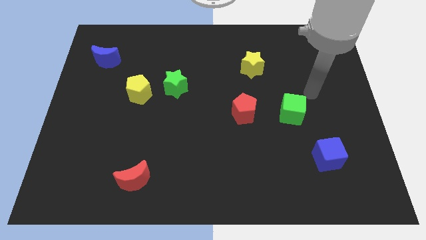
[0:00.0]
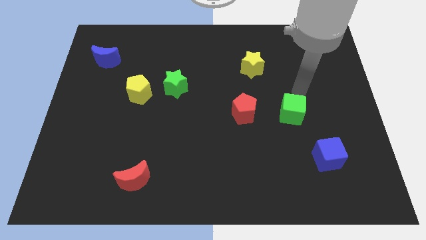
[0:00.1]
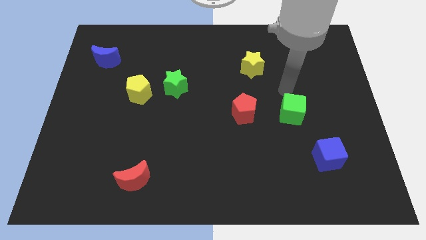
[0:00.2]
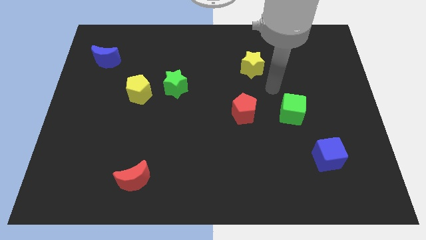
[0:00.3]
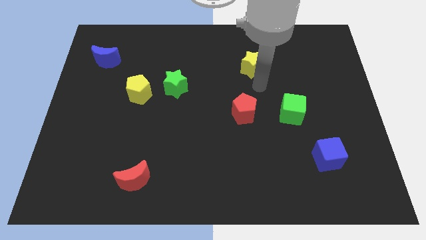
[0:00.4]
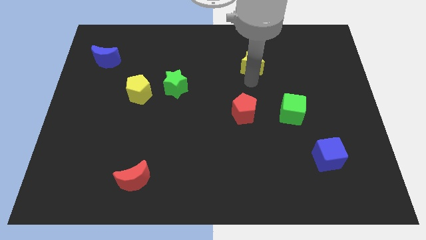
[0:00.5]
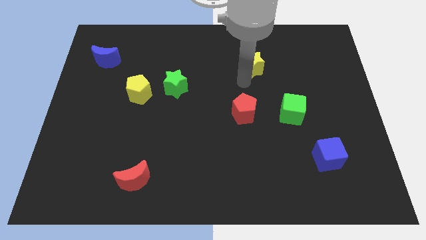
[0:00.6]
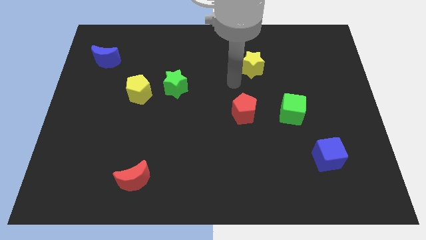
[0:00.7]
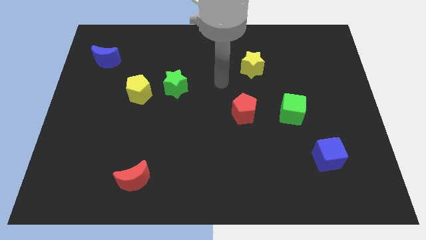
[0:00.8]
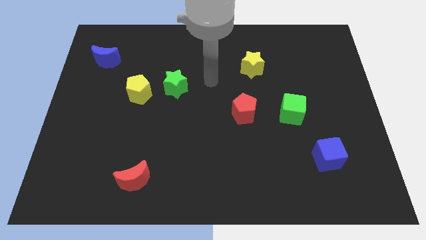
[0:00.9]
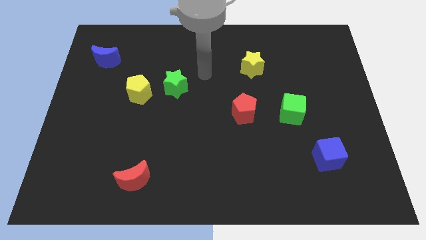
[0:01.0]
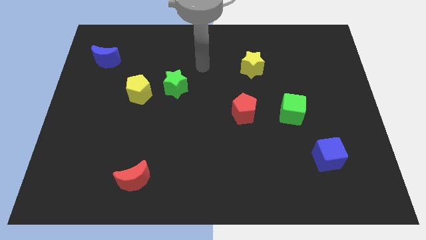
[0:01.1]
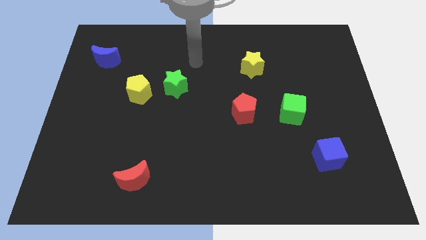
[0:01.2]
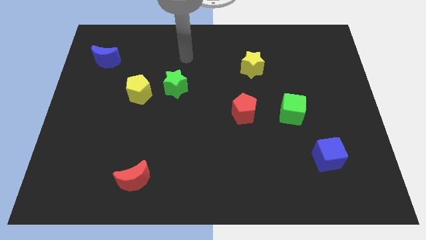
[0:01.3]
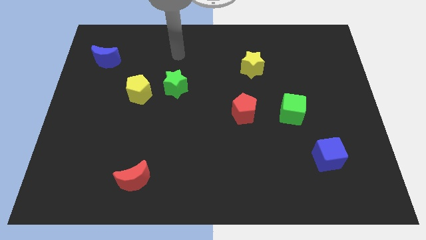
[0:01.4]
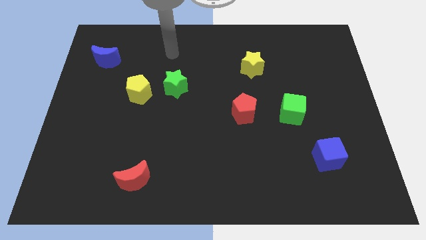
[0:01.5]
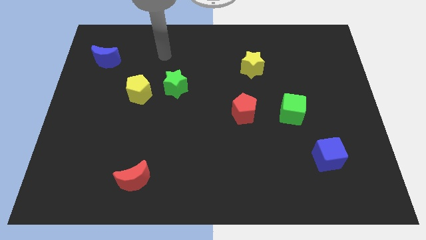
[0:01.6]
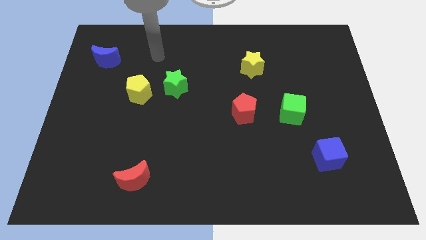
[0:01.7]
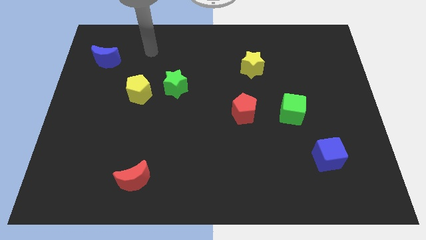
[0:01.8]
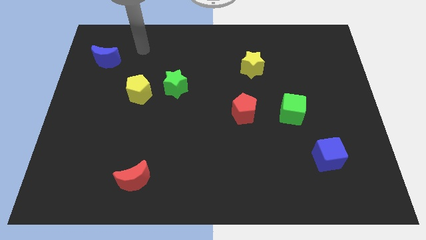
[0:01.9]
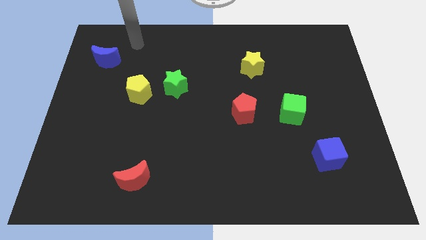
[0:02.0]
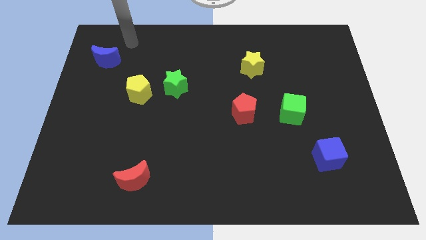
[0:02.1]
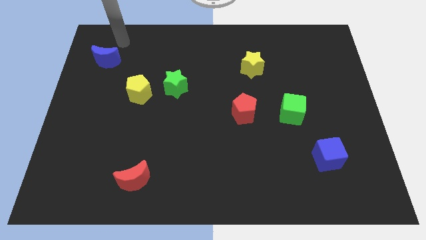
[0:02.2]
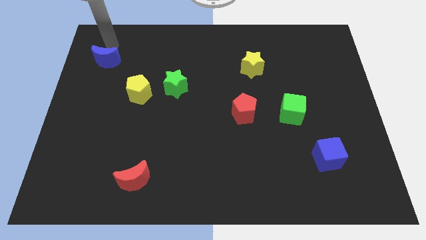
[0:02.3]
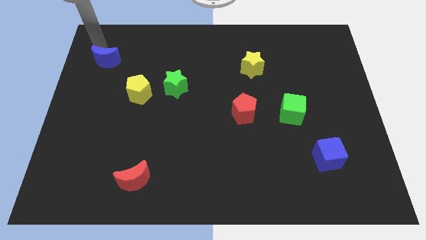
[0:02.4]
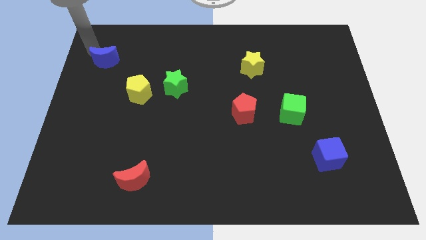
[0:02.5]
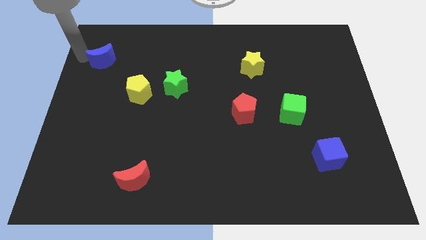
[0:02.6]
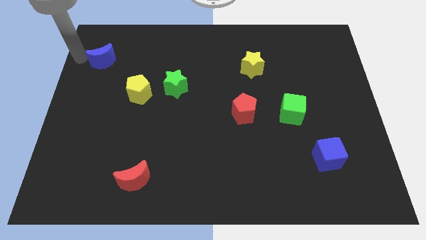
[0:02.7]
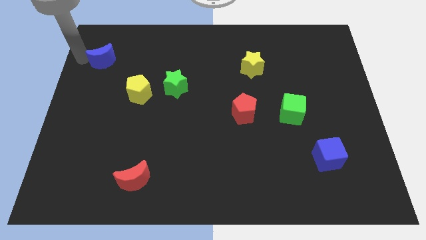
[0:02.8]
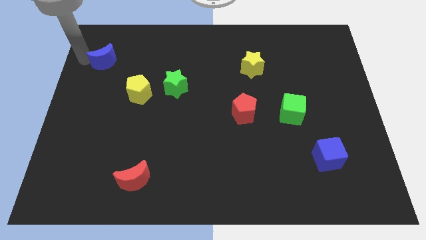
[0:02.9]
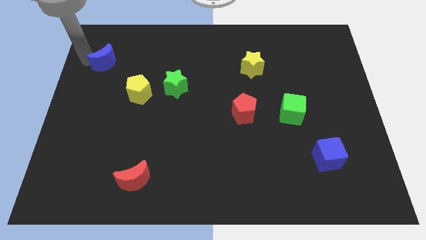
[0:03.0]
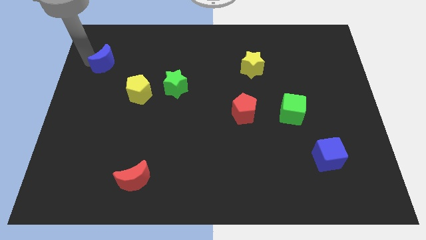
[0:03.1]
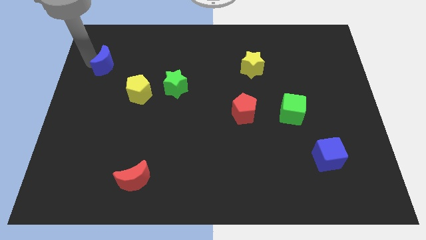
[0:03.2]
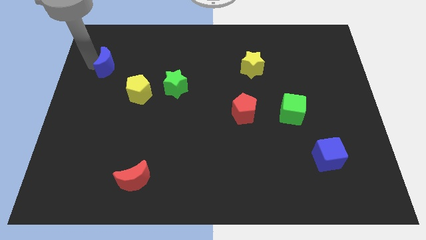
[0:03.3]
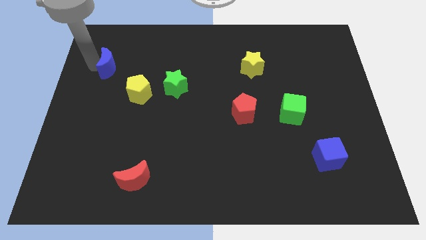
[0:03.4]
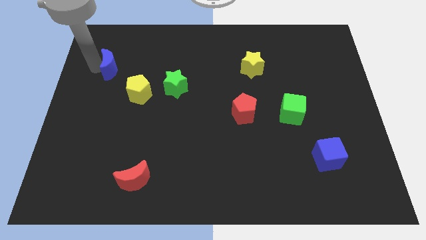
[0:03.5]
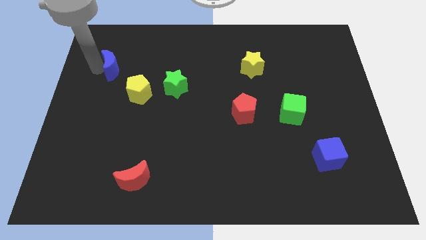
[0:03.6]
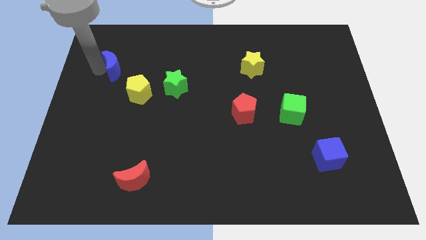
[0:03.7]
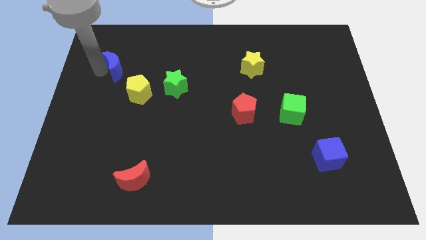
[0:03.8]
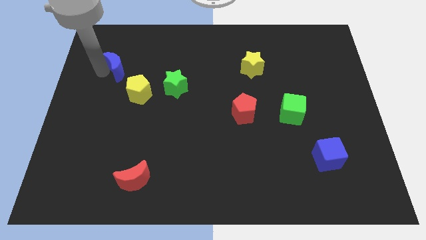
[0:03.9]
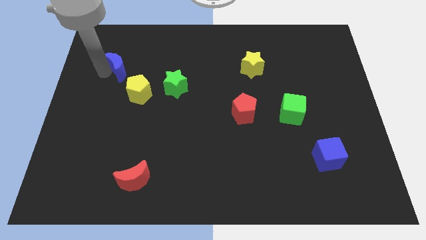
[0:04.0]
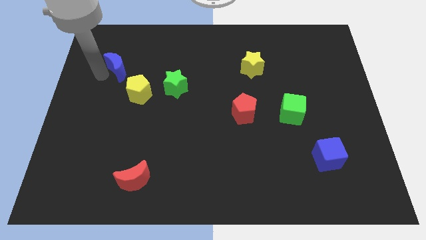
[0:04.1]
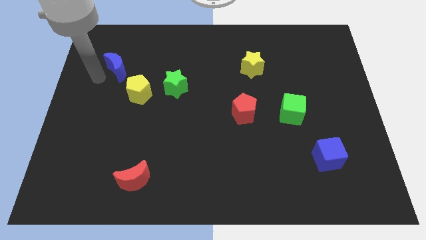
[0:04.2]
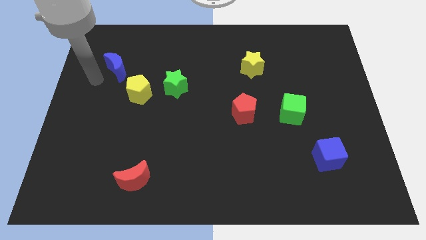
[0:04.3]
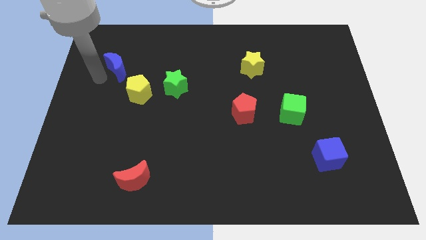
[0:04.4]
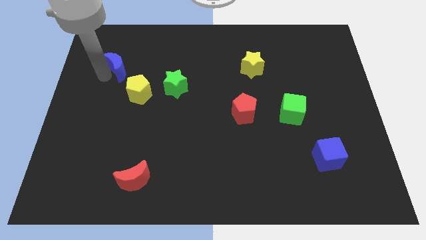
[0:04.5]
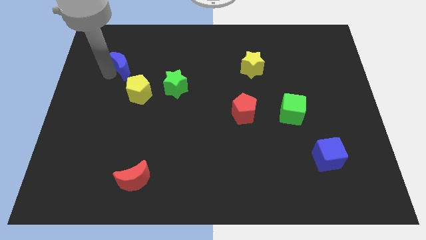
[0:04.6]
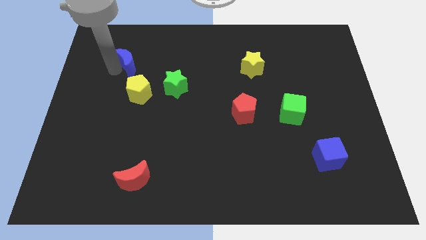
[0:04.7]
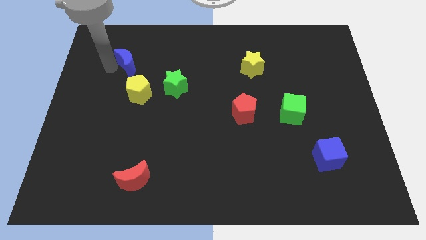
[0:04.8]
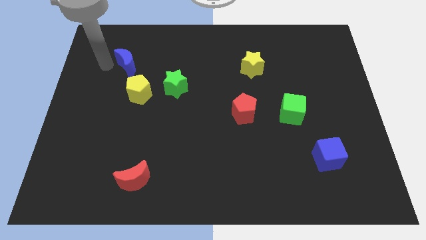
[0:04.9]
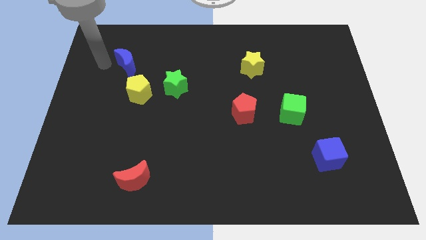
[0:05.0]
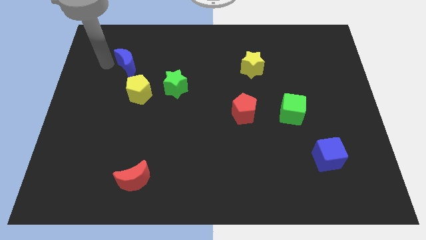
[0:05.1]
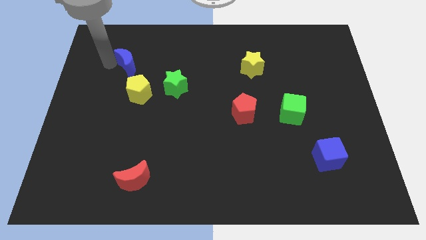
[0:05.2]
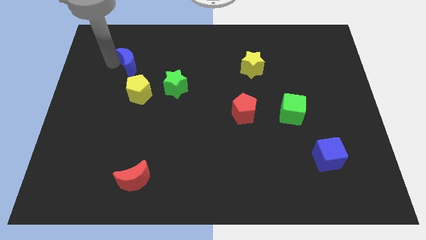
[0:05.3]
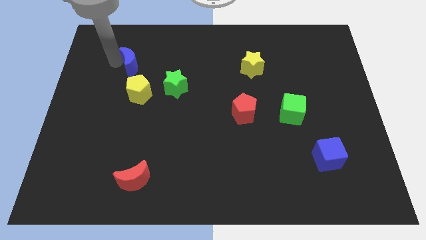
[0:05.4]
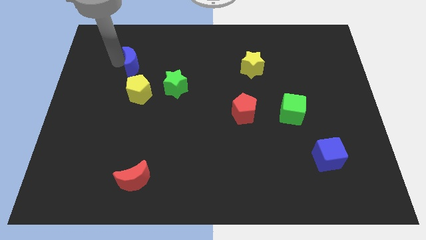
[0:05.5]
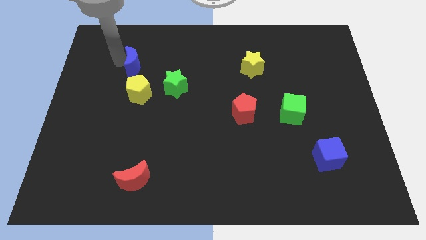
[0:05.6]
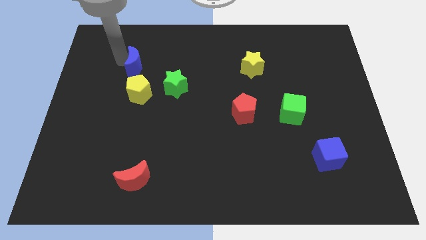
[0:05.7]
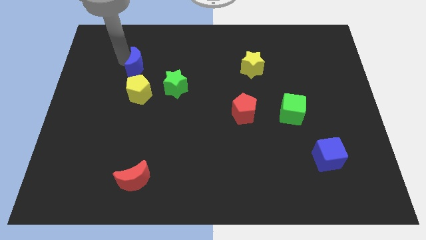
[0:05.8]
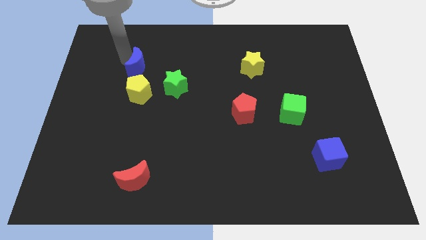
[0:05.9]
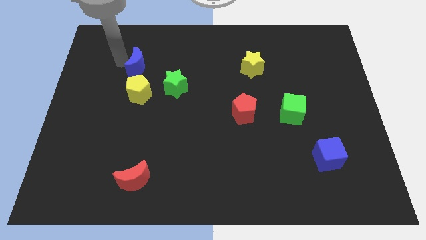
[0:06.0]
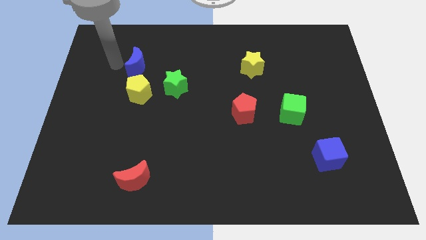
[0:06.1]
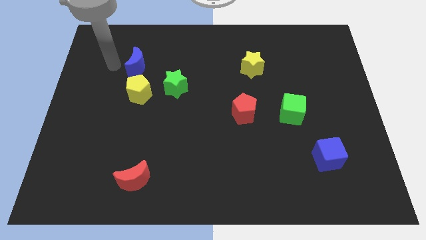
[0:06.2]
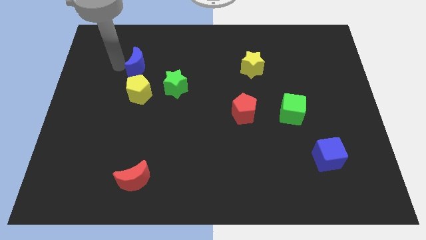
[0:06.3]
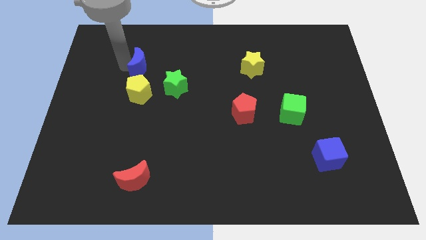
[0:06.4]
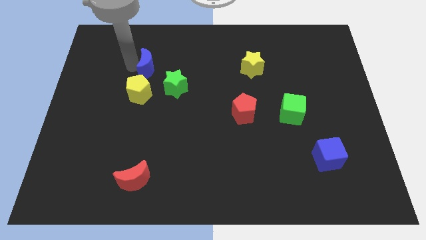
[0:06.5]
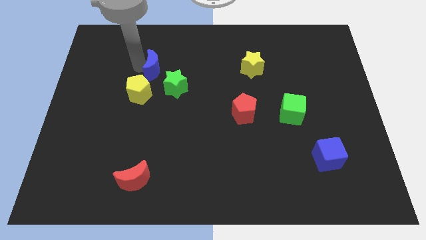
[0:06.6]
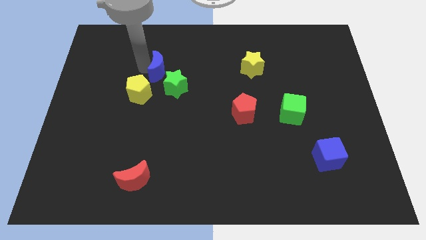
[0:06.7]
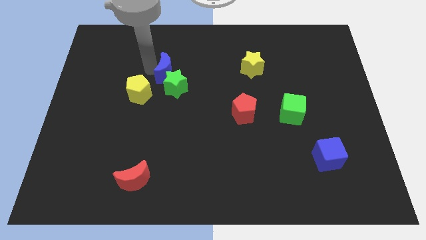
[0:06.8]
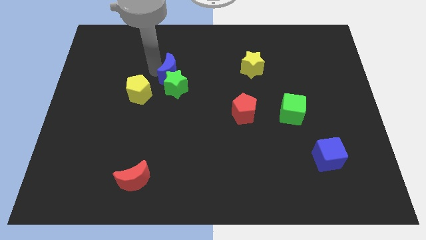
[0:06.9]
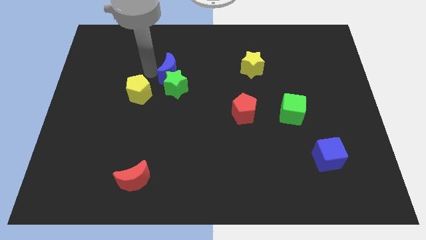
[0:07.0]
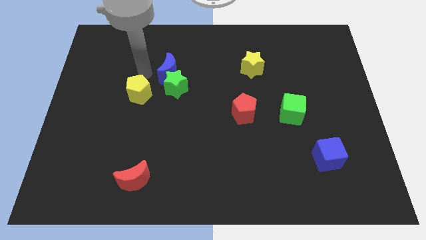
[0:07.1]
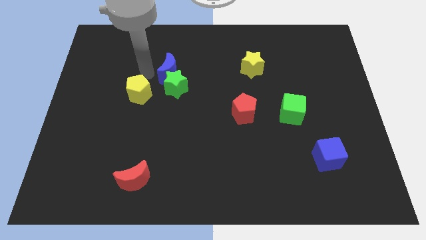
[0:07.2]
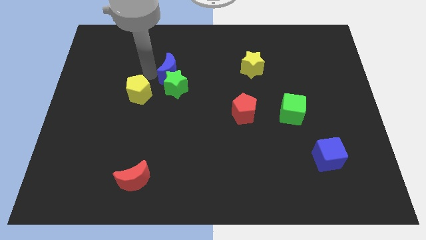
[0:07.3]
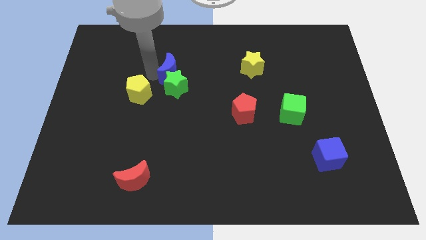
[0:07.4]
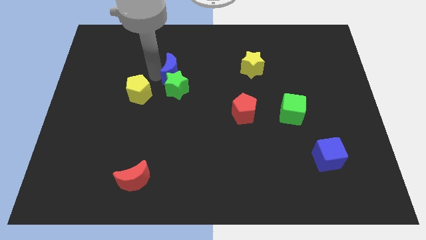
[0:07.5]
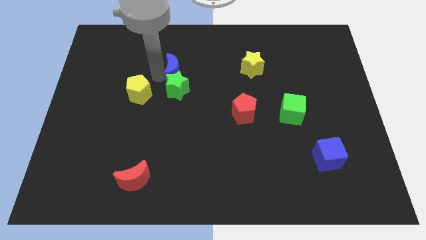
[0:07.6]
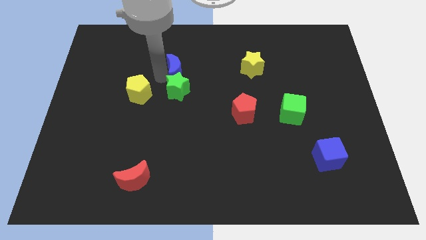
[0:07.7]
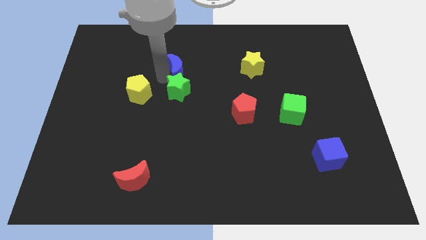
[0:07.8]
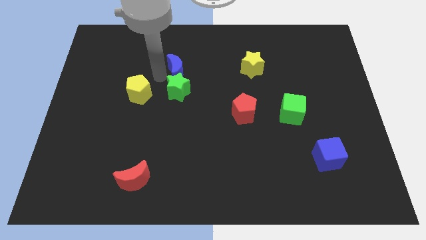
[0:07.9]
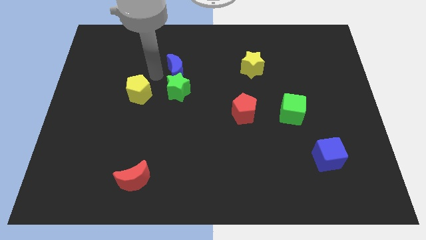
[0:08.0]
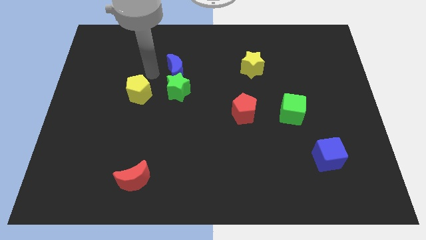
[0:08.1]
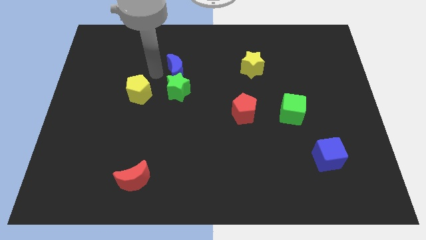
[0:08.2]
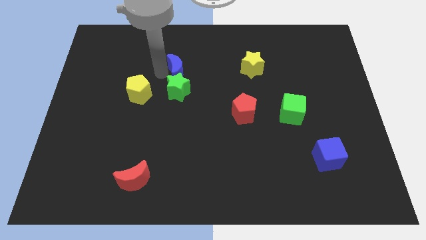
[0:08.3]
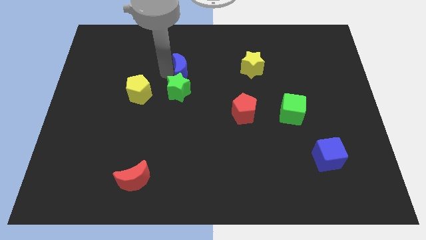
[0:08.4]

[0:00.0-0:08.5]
push the blue moon to the middle of the board
